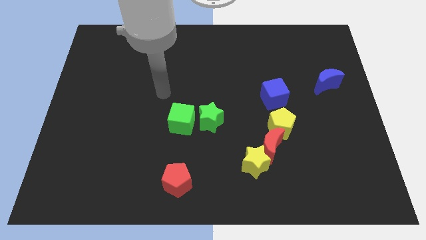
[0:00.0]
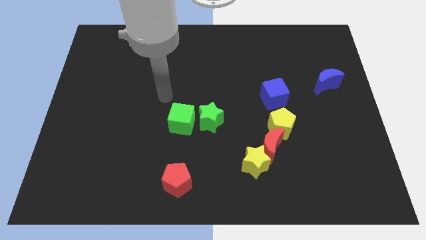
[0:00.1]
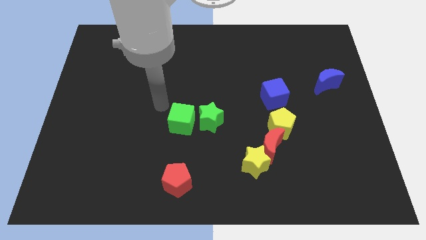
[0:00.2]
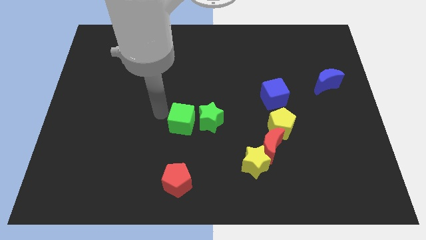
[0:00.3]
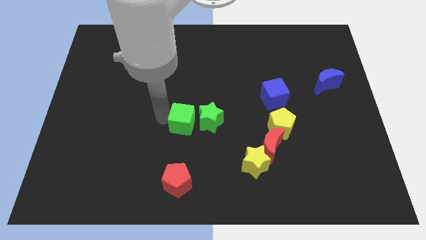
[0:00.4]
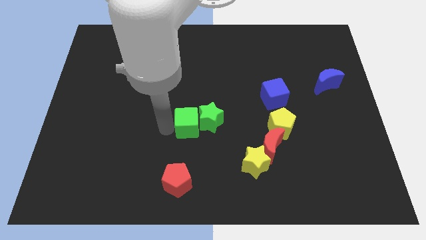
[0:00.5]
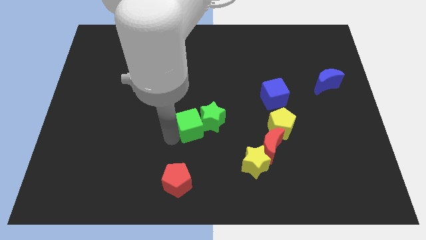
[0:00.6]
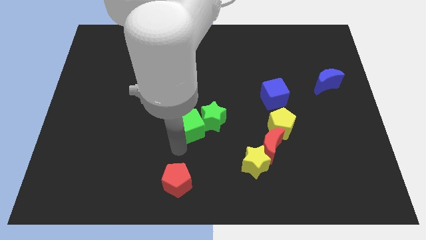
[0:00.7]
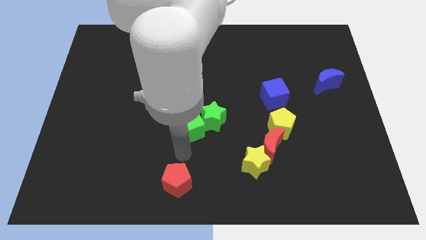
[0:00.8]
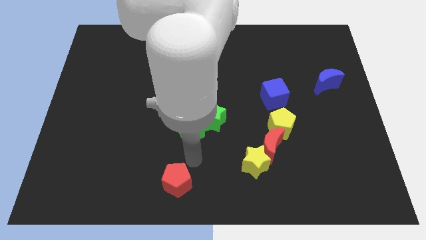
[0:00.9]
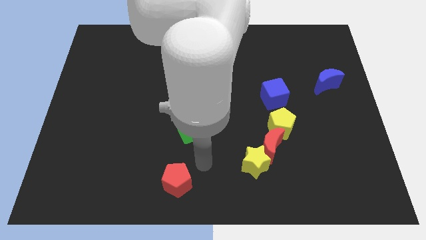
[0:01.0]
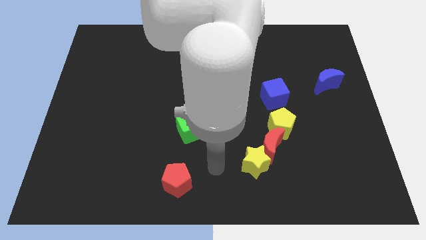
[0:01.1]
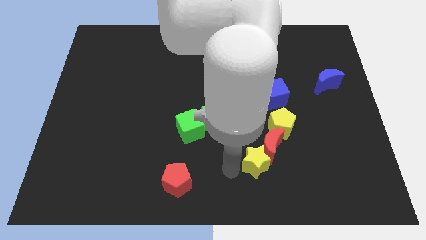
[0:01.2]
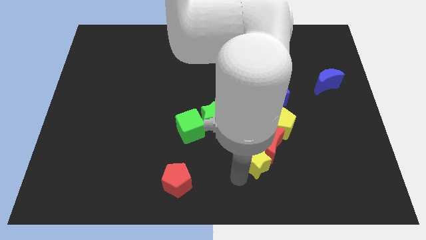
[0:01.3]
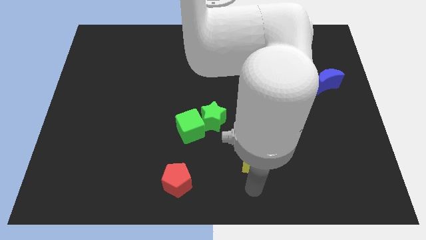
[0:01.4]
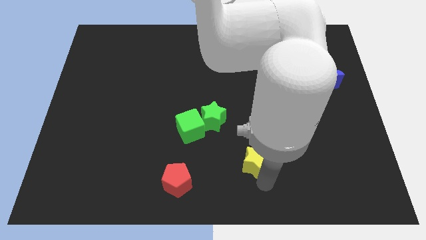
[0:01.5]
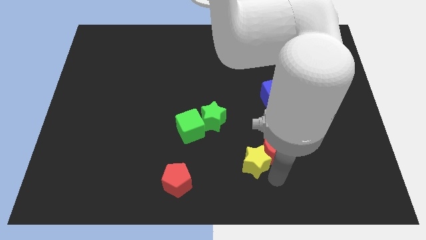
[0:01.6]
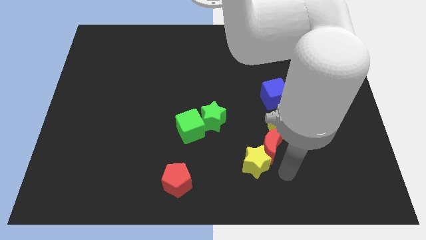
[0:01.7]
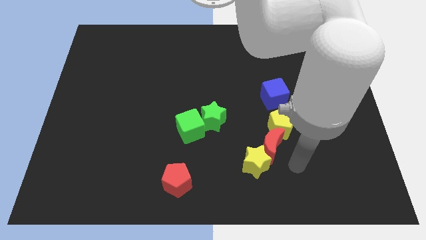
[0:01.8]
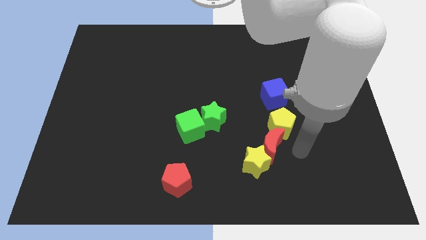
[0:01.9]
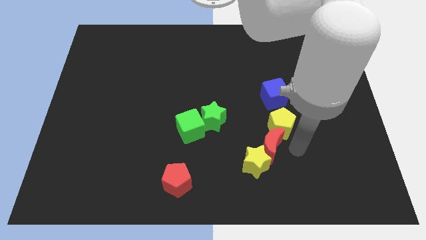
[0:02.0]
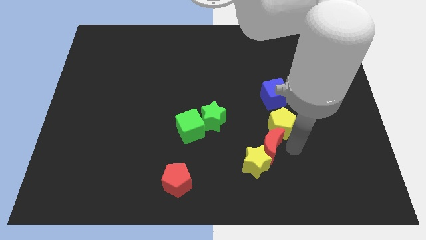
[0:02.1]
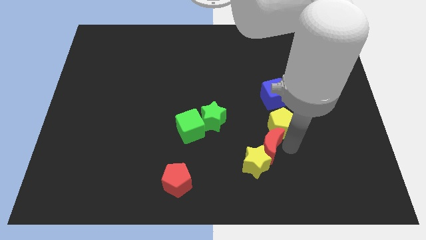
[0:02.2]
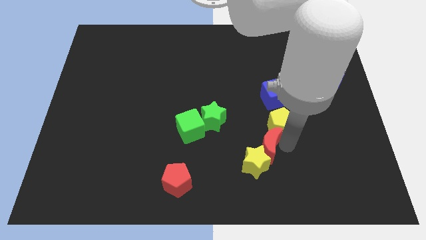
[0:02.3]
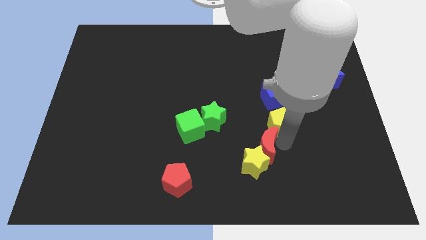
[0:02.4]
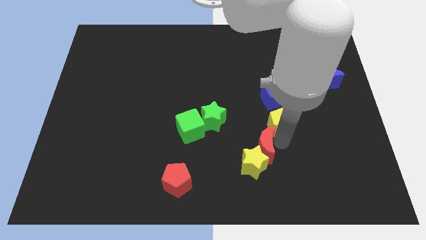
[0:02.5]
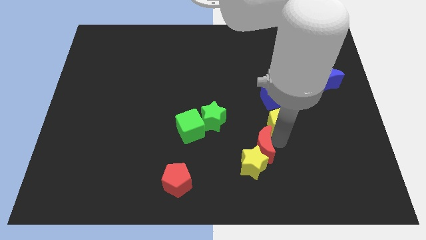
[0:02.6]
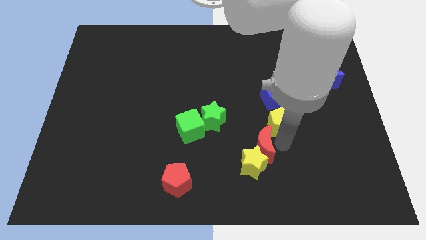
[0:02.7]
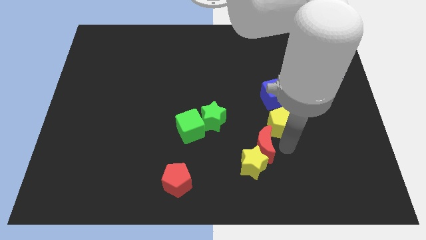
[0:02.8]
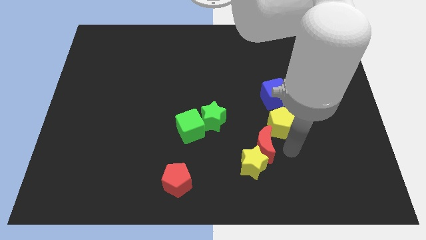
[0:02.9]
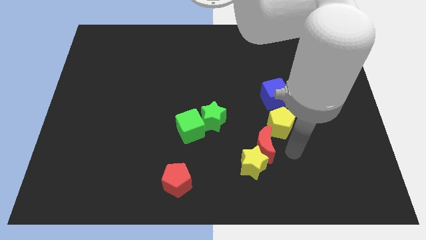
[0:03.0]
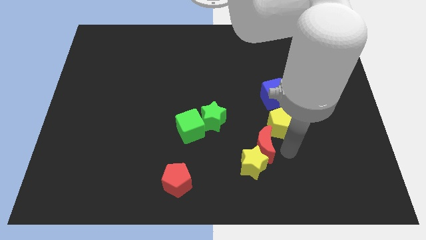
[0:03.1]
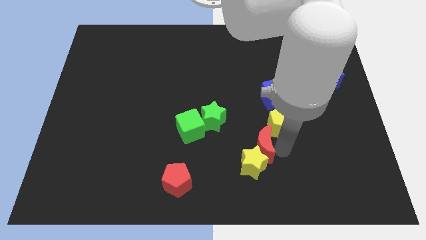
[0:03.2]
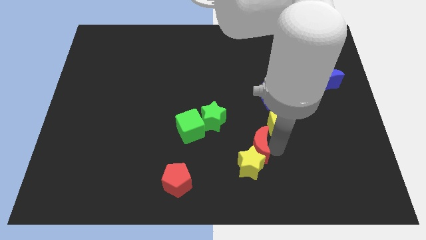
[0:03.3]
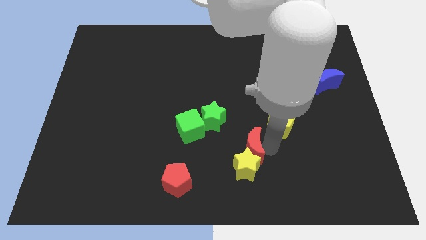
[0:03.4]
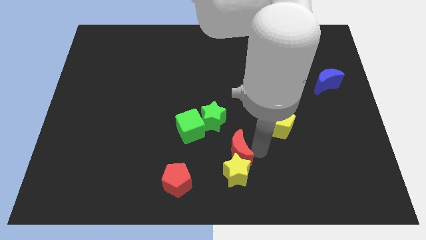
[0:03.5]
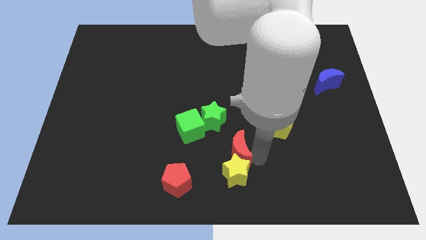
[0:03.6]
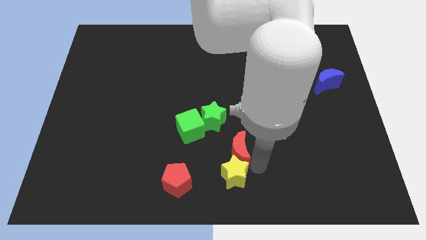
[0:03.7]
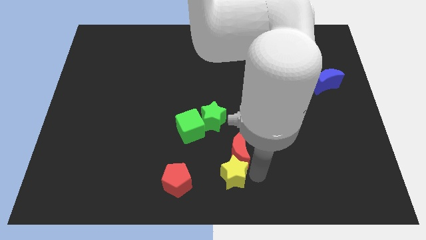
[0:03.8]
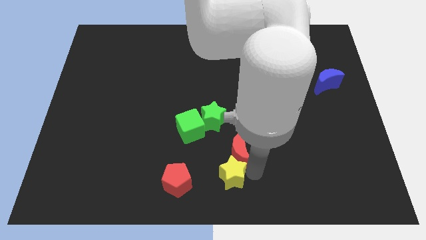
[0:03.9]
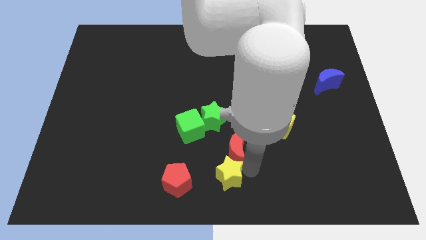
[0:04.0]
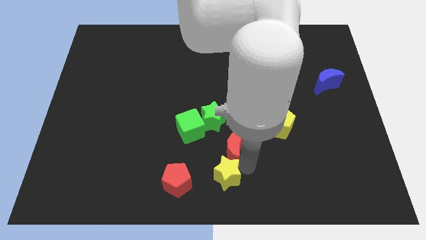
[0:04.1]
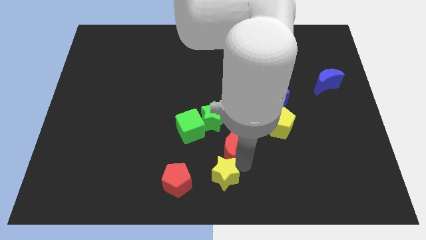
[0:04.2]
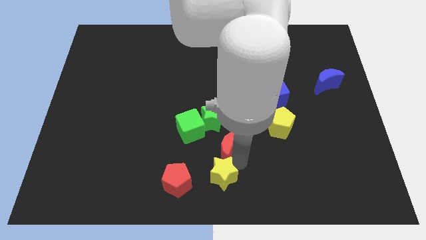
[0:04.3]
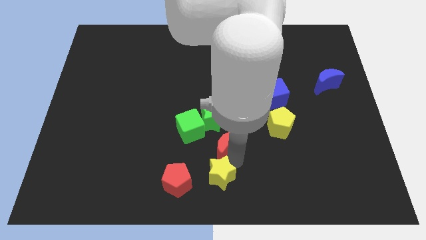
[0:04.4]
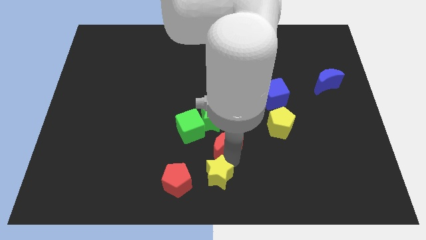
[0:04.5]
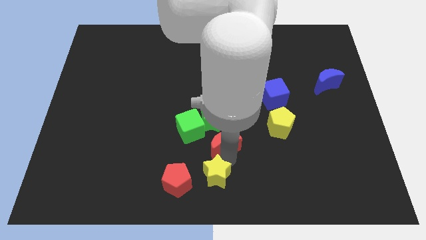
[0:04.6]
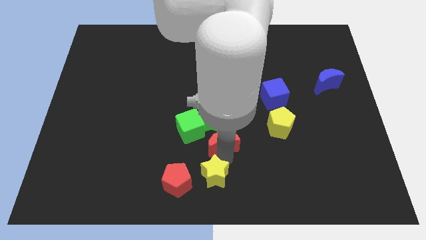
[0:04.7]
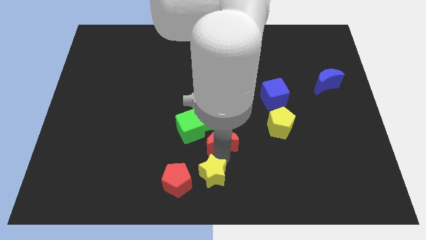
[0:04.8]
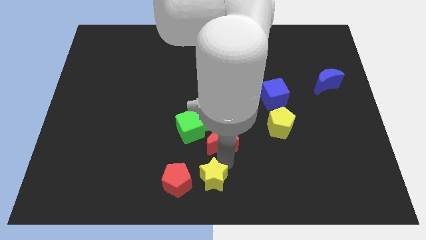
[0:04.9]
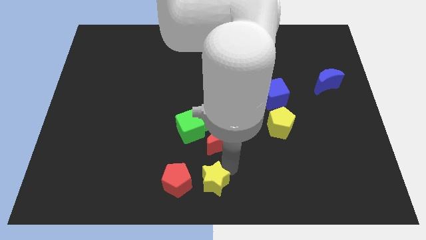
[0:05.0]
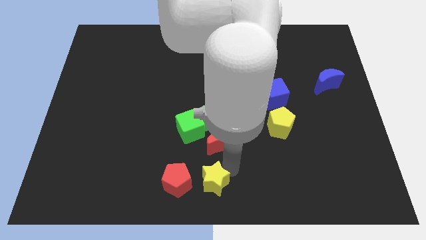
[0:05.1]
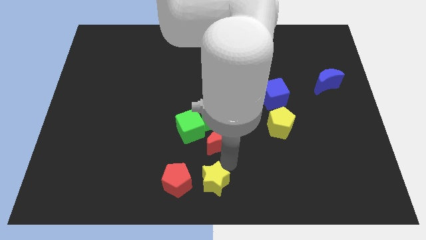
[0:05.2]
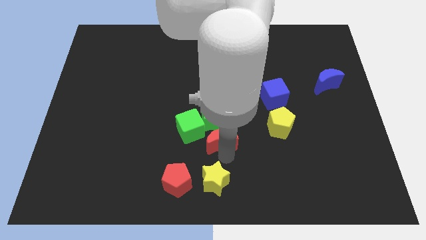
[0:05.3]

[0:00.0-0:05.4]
push the red moon close to the green star

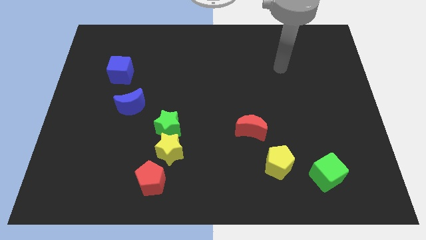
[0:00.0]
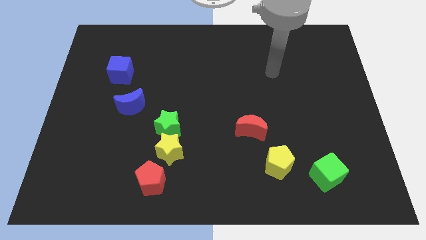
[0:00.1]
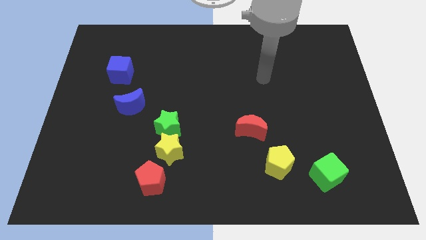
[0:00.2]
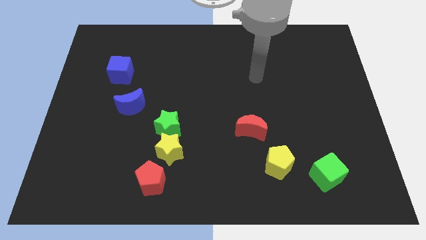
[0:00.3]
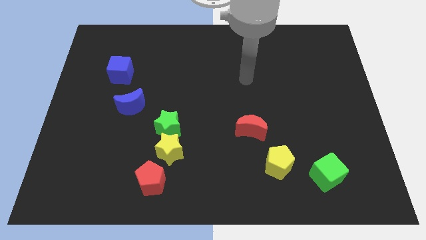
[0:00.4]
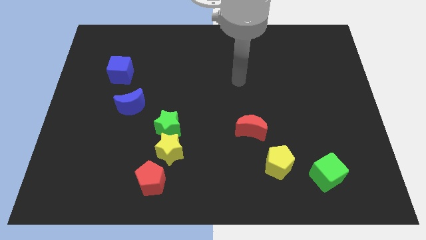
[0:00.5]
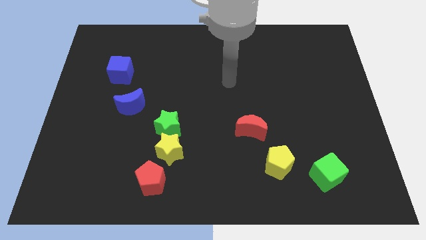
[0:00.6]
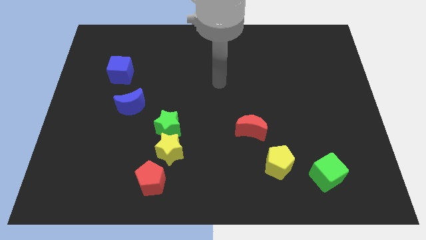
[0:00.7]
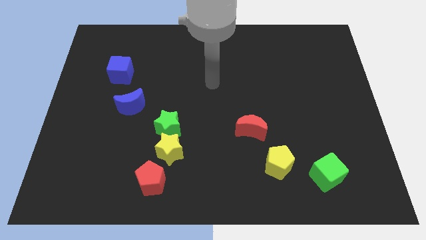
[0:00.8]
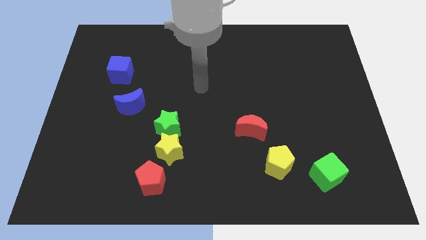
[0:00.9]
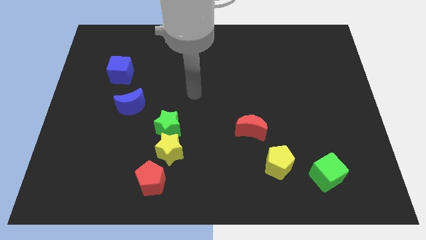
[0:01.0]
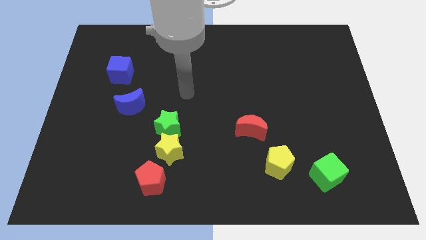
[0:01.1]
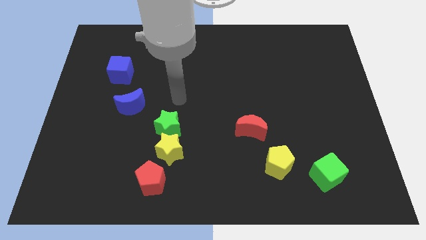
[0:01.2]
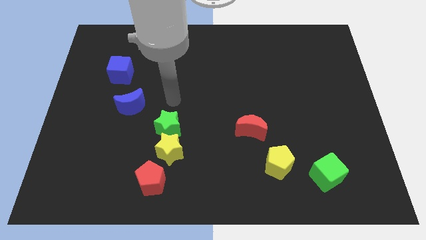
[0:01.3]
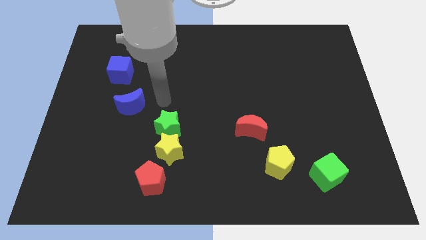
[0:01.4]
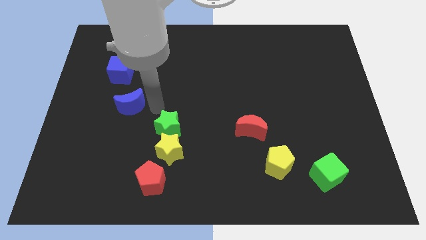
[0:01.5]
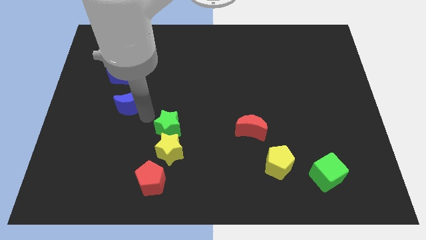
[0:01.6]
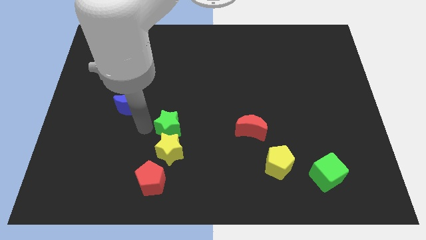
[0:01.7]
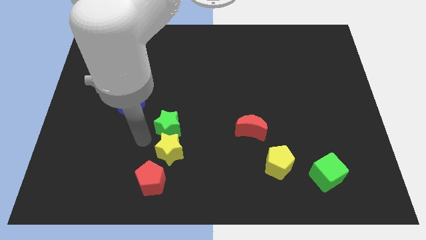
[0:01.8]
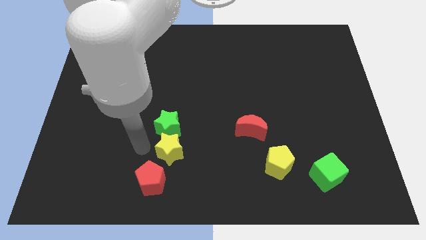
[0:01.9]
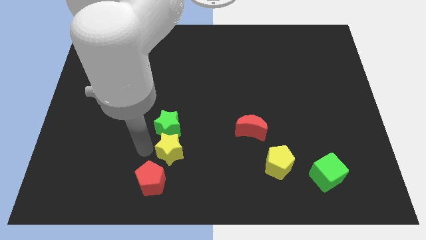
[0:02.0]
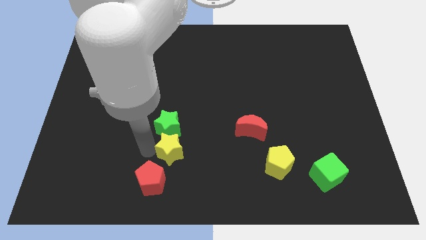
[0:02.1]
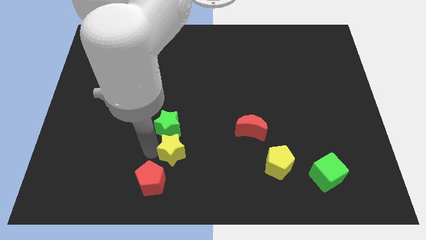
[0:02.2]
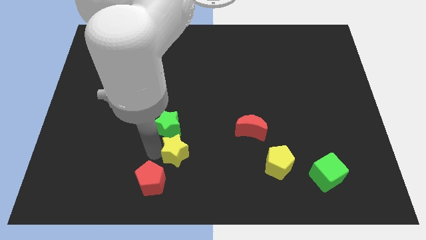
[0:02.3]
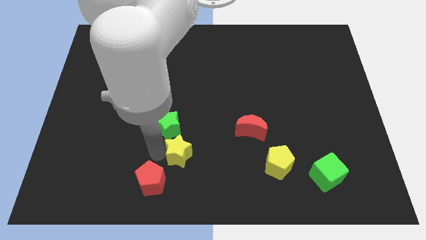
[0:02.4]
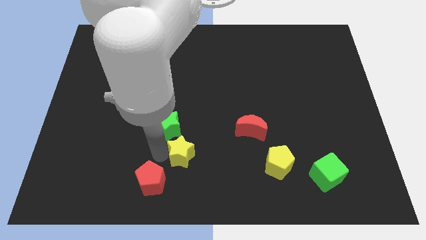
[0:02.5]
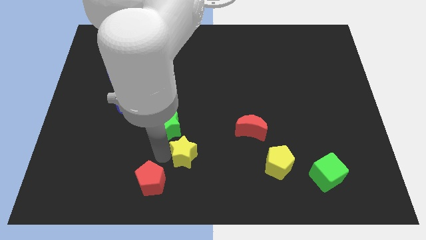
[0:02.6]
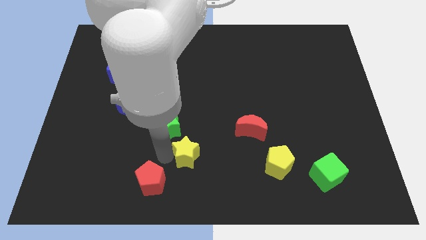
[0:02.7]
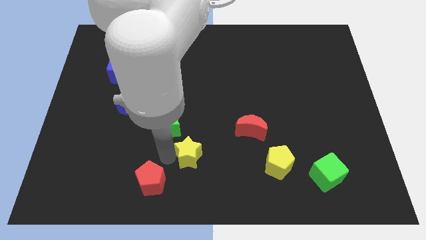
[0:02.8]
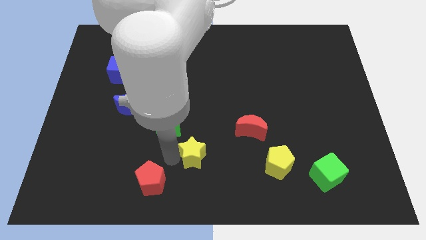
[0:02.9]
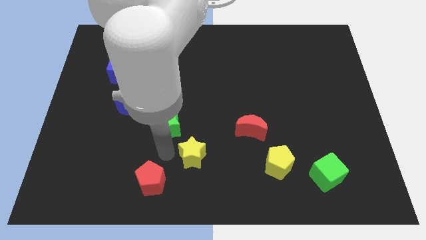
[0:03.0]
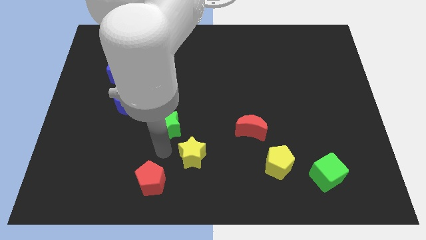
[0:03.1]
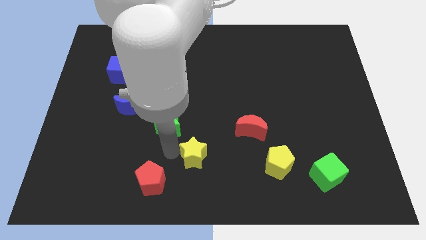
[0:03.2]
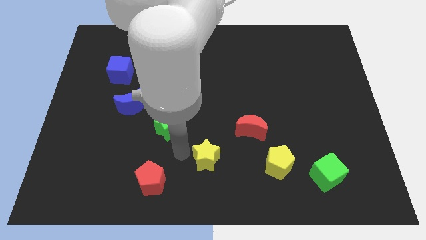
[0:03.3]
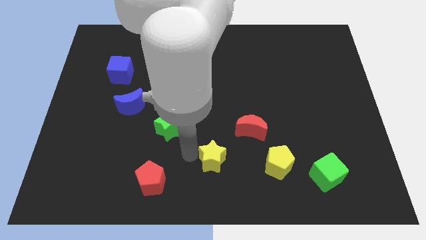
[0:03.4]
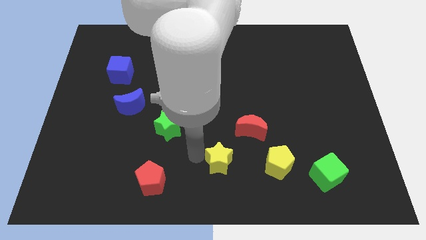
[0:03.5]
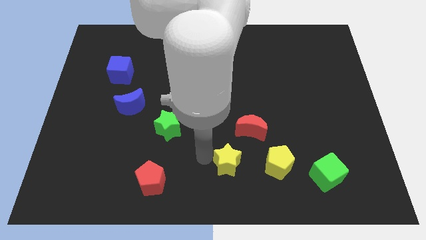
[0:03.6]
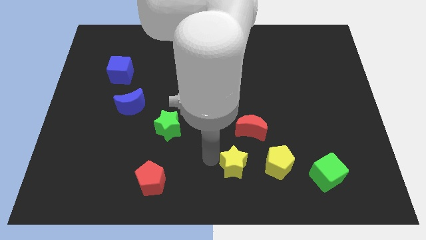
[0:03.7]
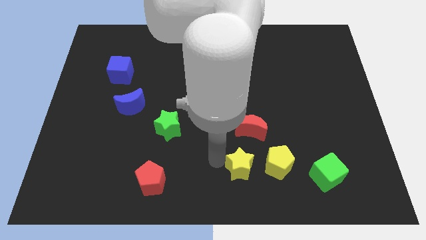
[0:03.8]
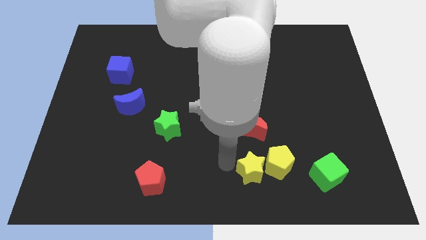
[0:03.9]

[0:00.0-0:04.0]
slide the yellow star close to the yellow pentagon
